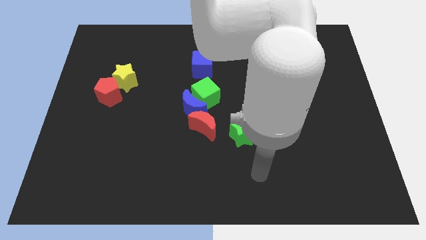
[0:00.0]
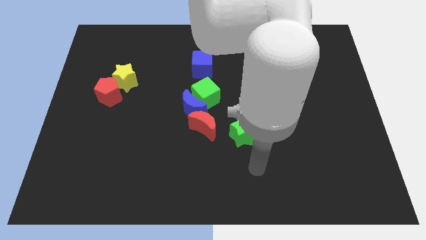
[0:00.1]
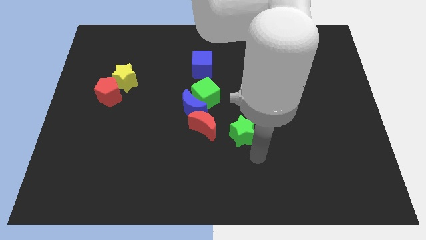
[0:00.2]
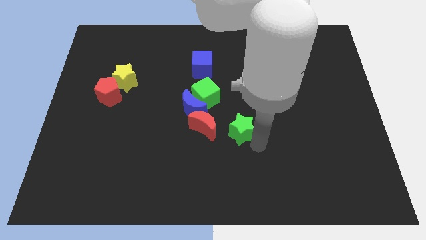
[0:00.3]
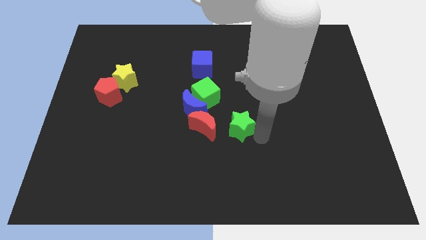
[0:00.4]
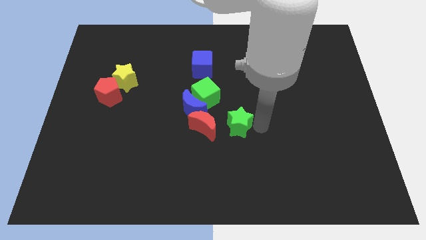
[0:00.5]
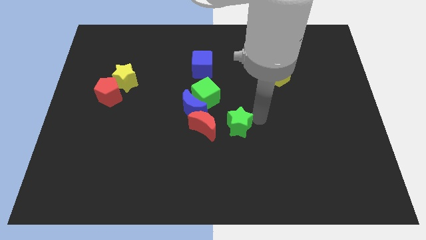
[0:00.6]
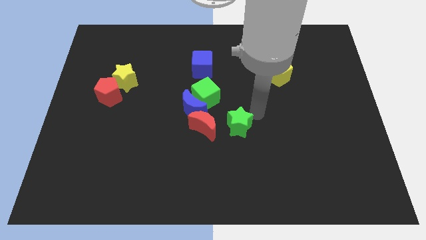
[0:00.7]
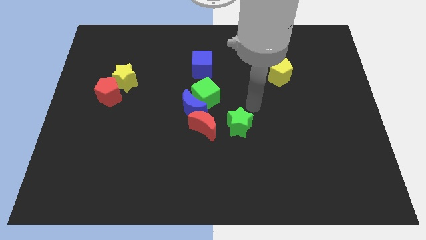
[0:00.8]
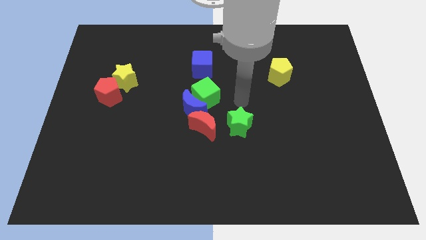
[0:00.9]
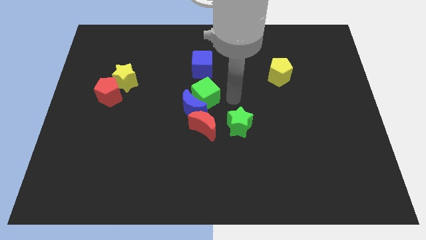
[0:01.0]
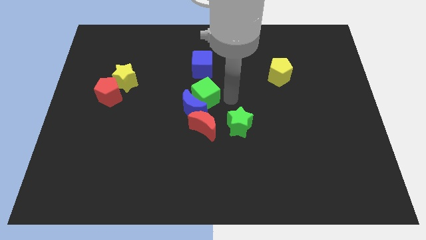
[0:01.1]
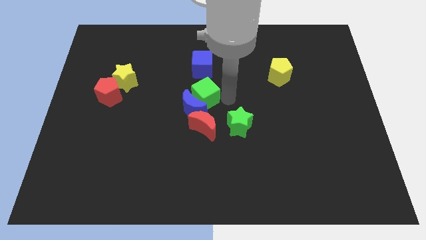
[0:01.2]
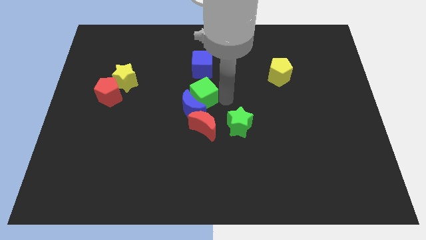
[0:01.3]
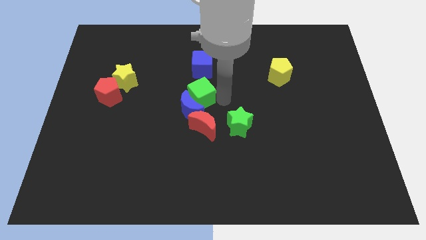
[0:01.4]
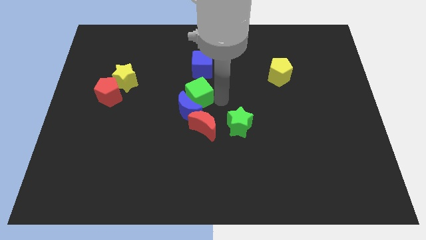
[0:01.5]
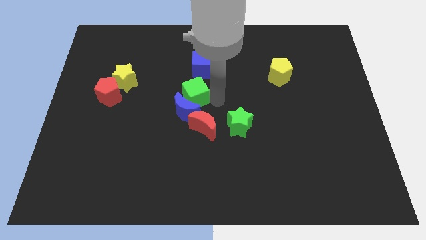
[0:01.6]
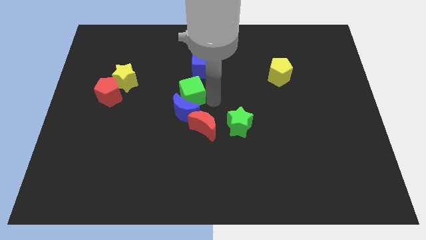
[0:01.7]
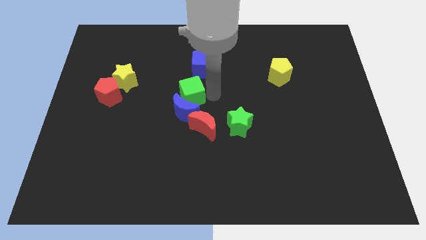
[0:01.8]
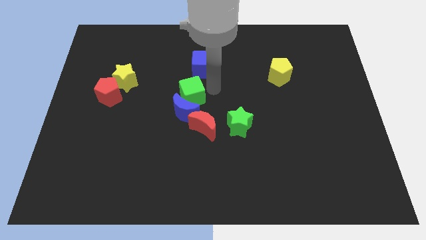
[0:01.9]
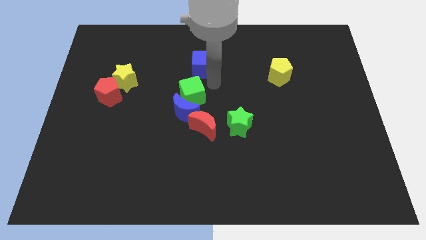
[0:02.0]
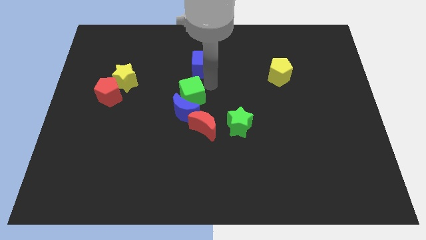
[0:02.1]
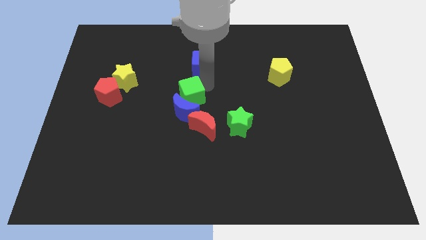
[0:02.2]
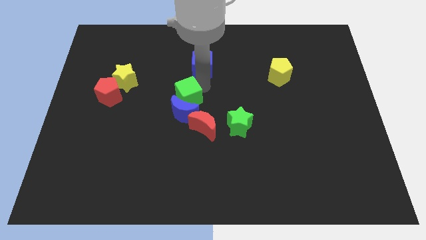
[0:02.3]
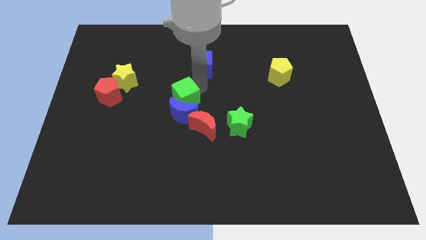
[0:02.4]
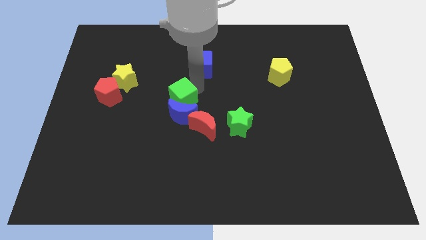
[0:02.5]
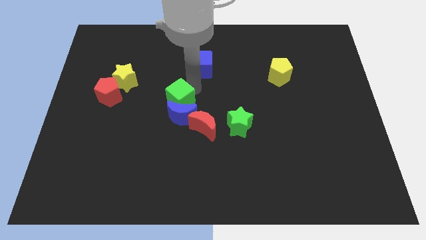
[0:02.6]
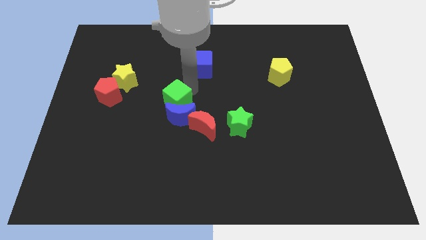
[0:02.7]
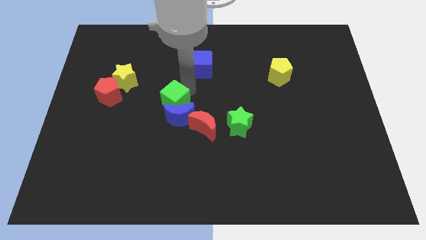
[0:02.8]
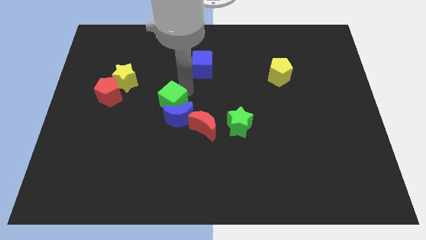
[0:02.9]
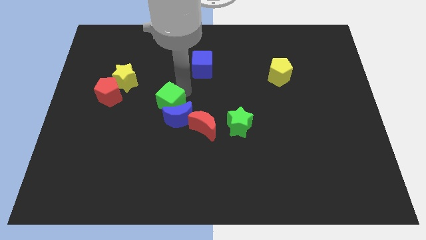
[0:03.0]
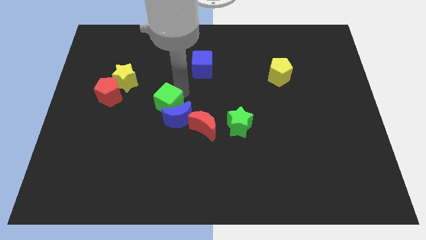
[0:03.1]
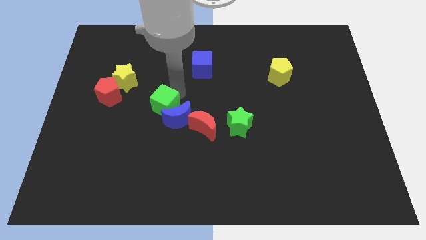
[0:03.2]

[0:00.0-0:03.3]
move the green cube down and then left somewhat

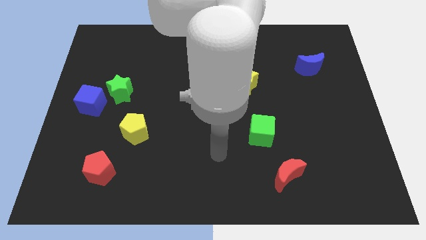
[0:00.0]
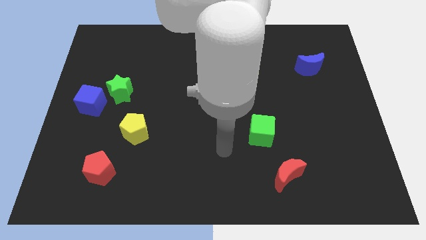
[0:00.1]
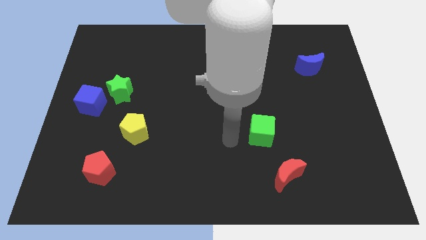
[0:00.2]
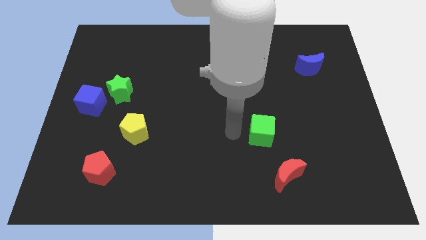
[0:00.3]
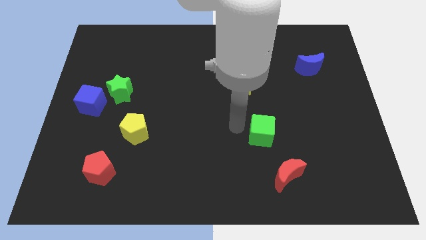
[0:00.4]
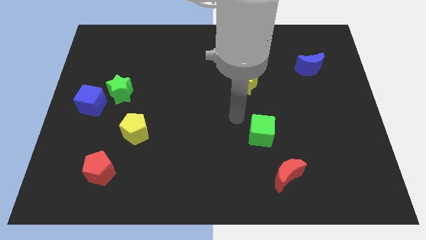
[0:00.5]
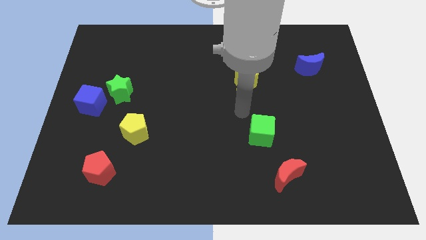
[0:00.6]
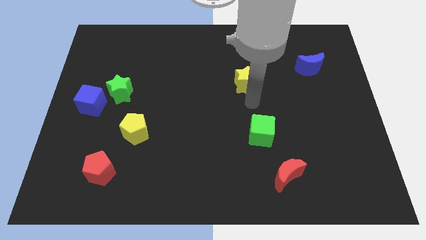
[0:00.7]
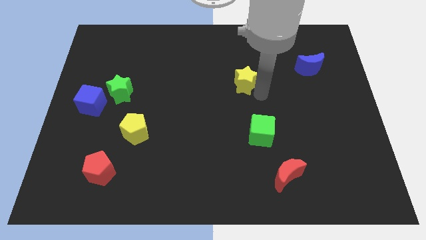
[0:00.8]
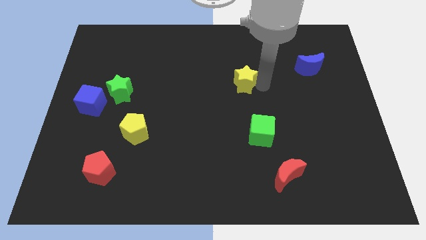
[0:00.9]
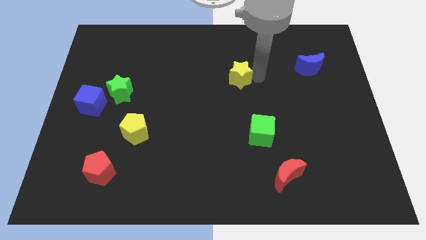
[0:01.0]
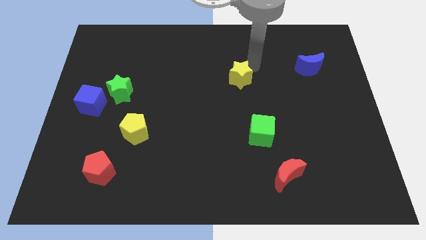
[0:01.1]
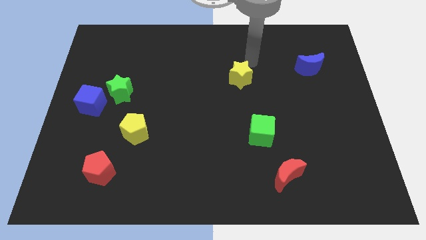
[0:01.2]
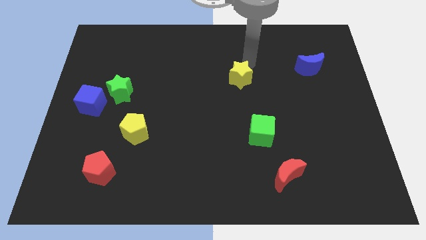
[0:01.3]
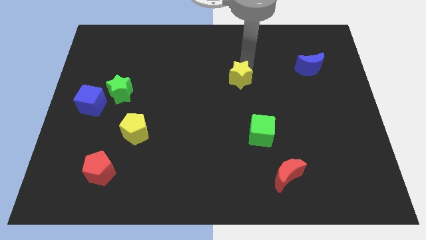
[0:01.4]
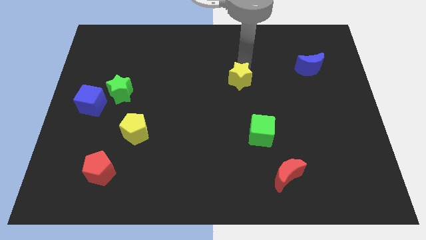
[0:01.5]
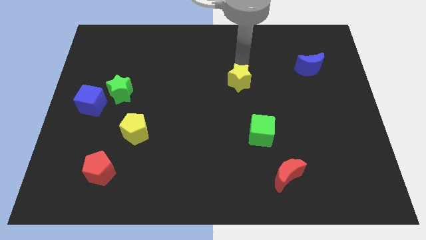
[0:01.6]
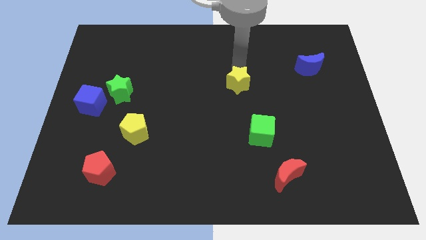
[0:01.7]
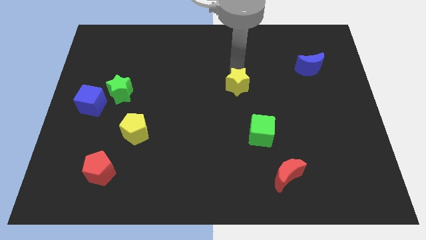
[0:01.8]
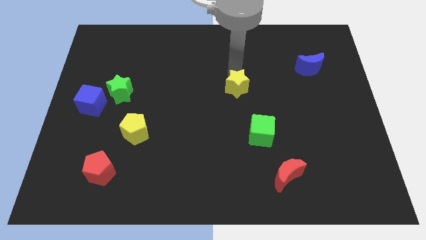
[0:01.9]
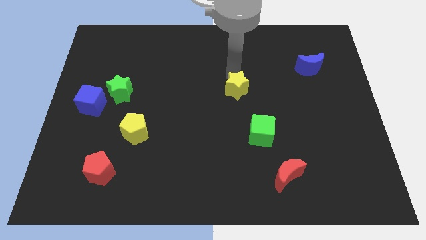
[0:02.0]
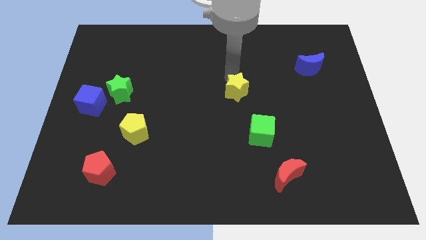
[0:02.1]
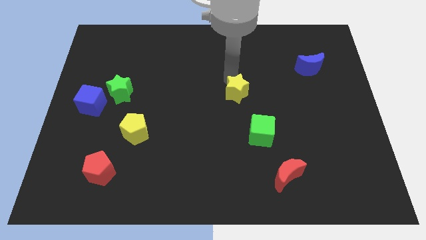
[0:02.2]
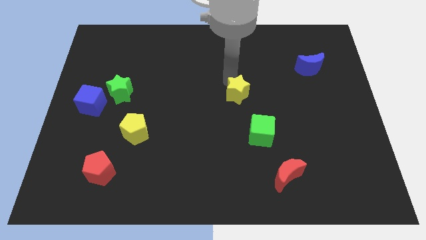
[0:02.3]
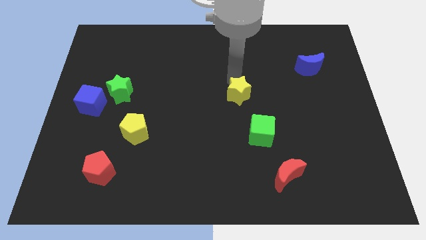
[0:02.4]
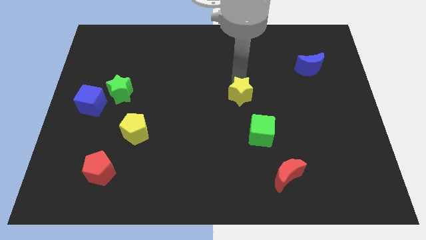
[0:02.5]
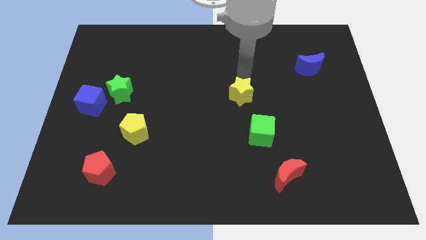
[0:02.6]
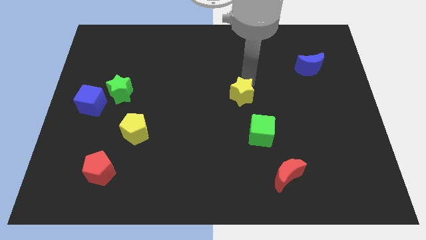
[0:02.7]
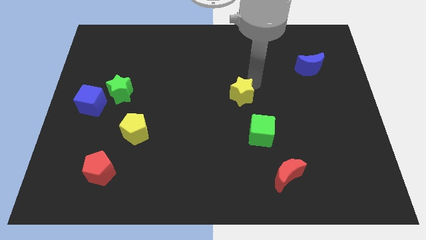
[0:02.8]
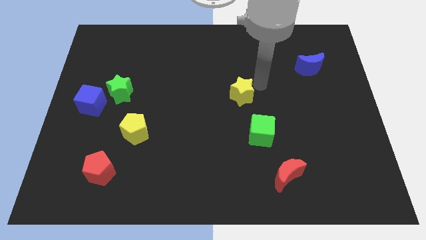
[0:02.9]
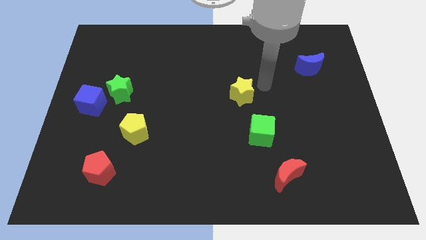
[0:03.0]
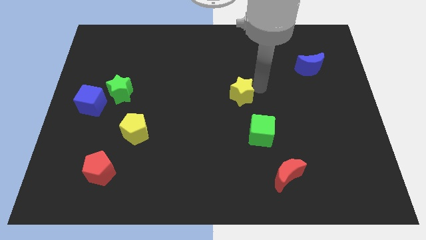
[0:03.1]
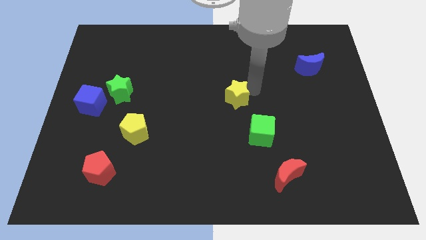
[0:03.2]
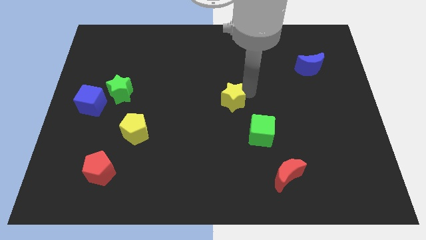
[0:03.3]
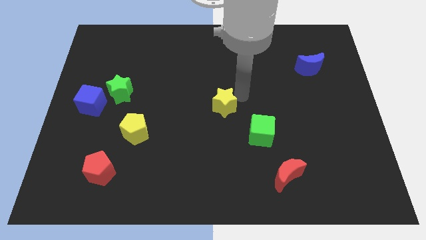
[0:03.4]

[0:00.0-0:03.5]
move the yellow star downwards and left slightly

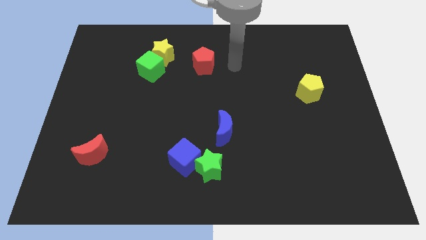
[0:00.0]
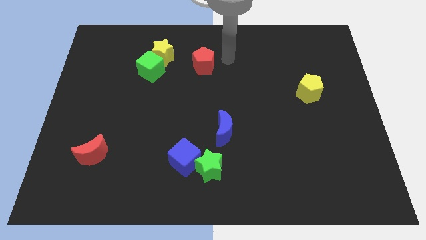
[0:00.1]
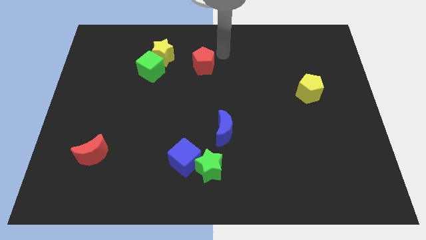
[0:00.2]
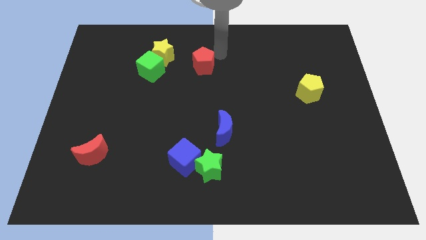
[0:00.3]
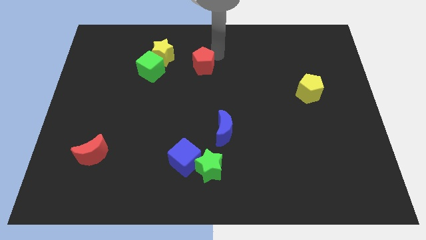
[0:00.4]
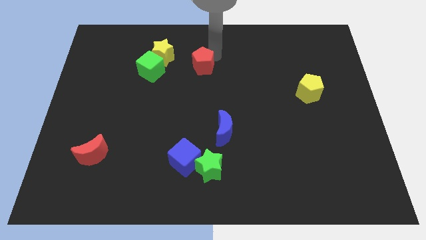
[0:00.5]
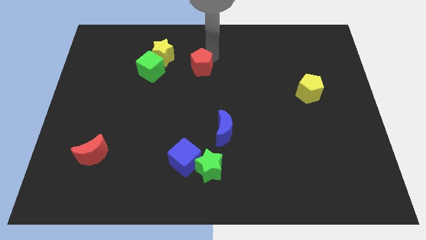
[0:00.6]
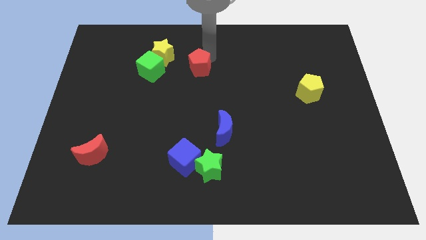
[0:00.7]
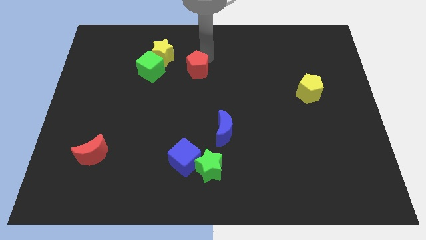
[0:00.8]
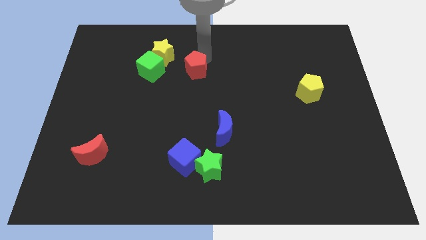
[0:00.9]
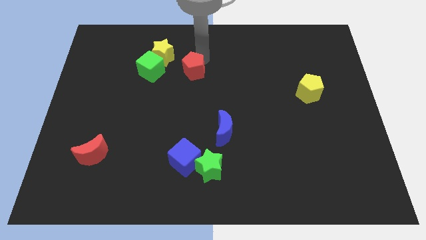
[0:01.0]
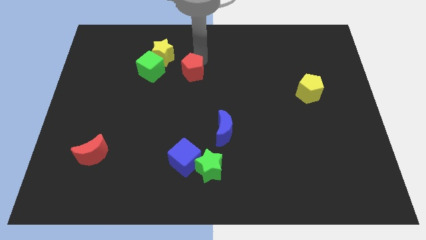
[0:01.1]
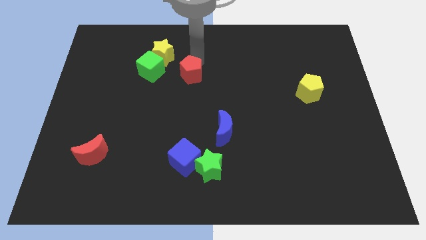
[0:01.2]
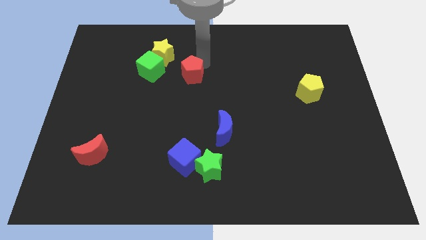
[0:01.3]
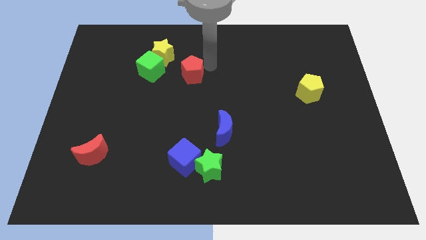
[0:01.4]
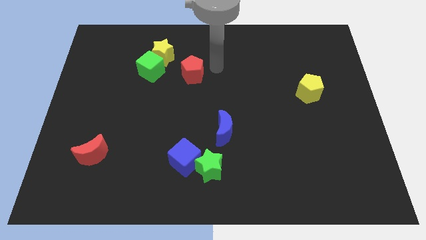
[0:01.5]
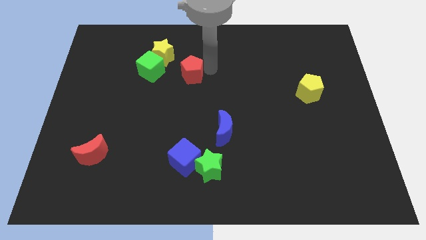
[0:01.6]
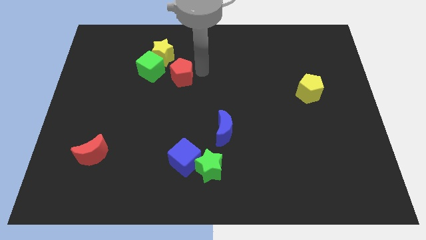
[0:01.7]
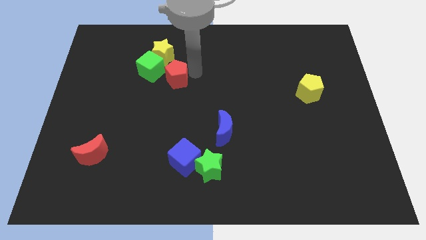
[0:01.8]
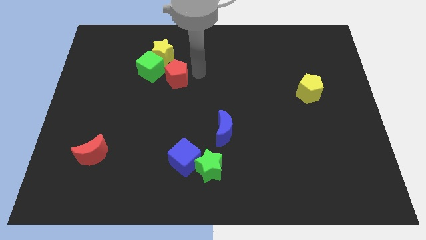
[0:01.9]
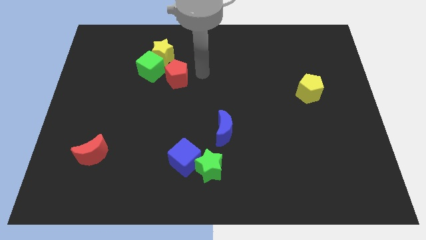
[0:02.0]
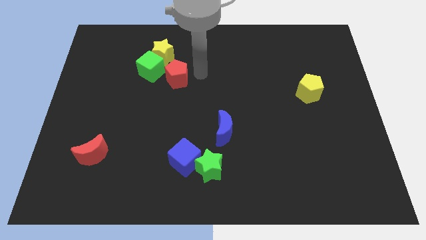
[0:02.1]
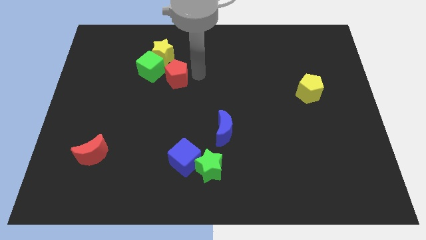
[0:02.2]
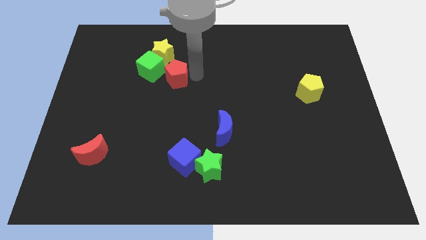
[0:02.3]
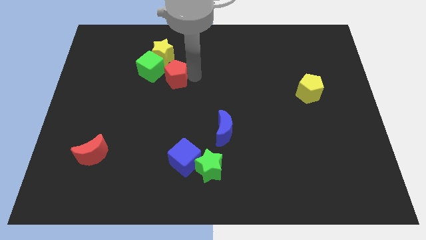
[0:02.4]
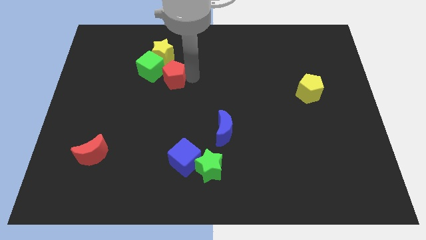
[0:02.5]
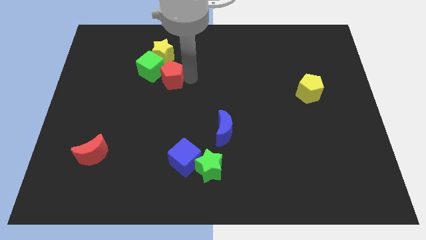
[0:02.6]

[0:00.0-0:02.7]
slightly slide the red pentagon left
